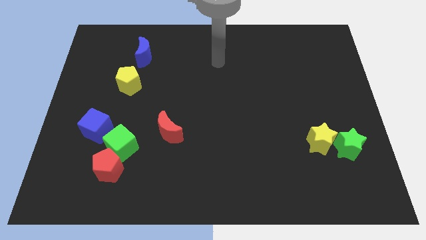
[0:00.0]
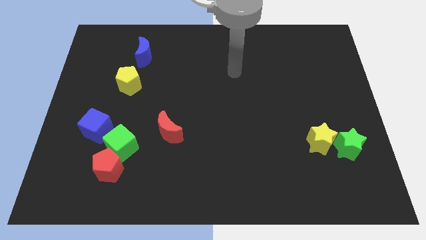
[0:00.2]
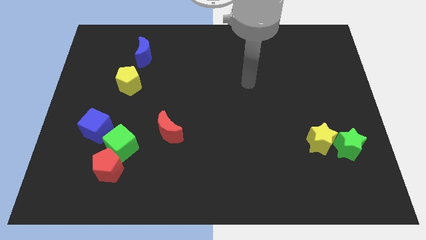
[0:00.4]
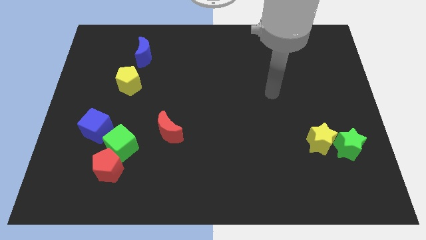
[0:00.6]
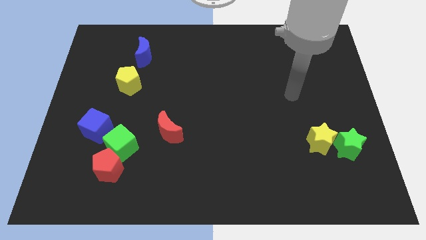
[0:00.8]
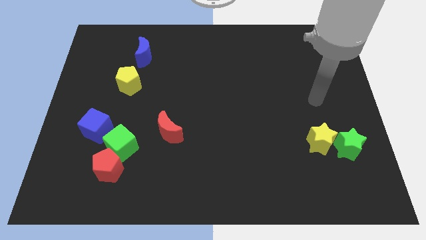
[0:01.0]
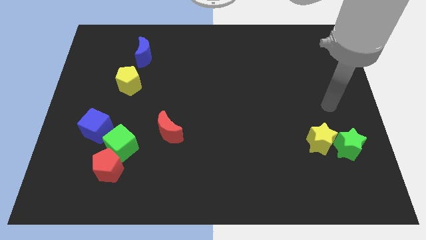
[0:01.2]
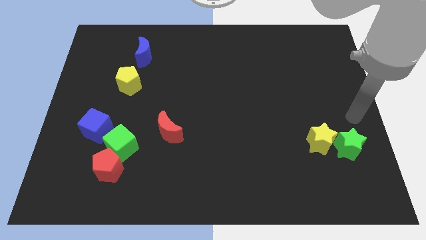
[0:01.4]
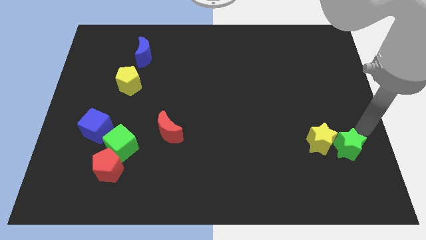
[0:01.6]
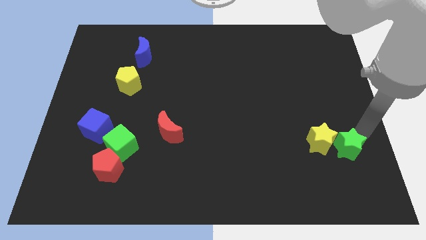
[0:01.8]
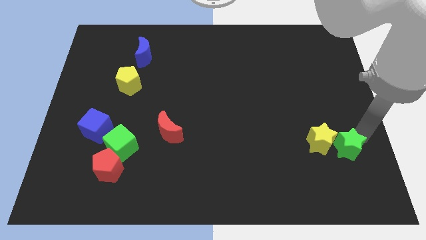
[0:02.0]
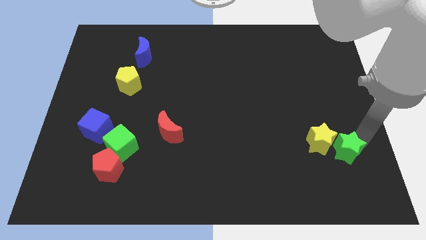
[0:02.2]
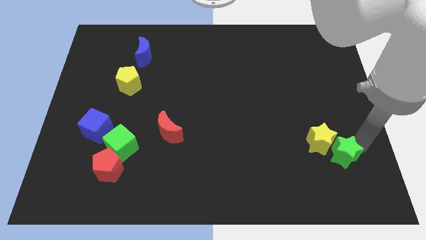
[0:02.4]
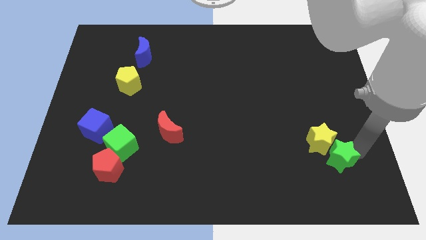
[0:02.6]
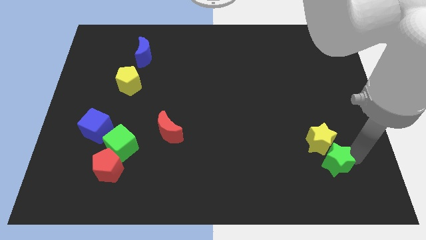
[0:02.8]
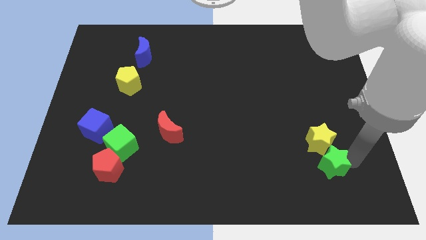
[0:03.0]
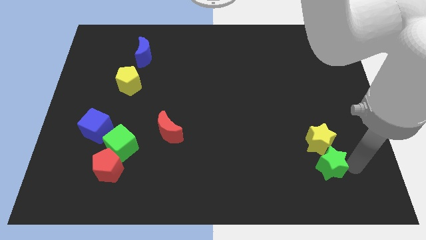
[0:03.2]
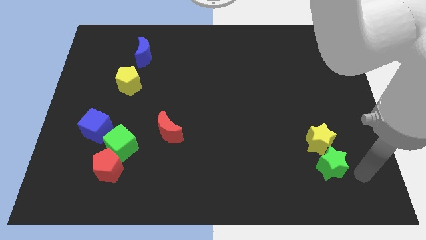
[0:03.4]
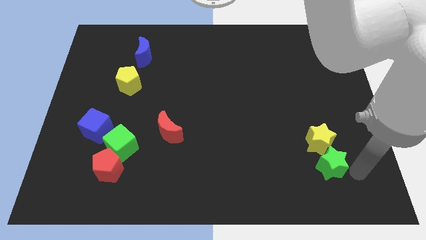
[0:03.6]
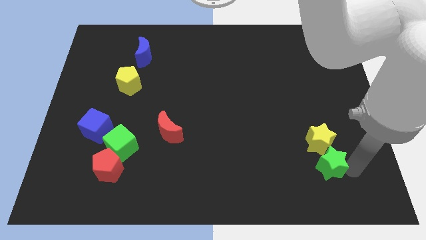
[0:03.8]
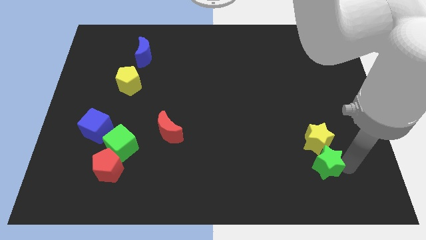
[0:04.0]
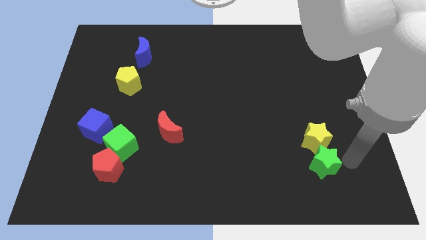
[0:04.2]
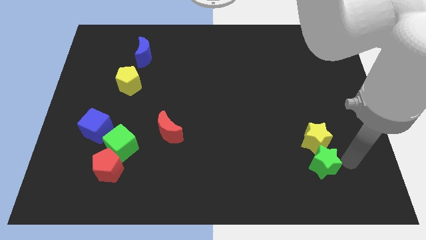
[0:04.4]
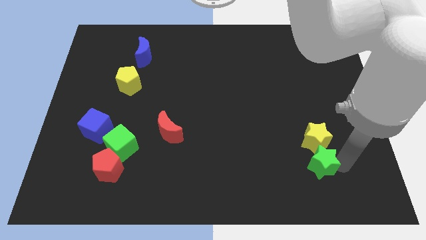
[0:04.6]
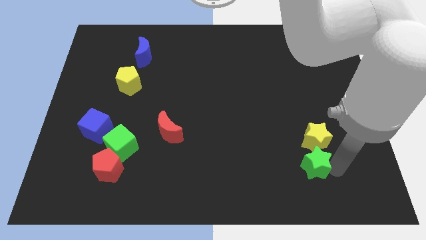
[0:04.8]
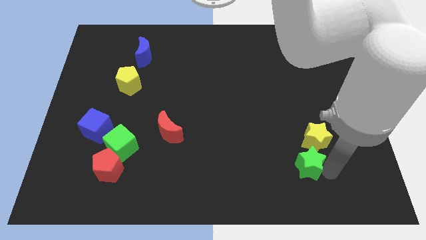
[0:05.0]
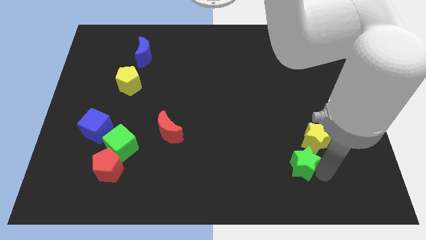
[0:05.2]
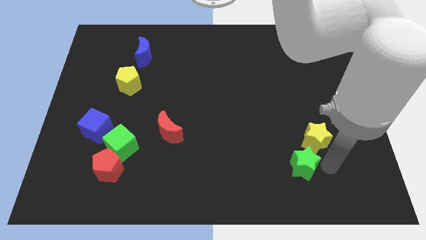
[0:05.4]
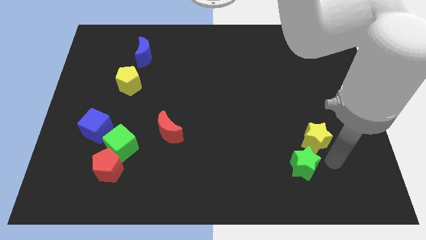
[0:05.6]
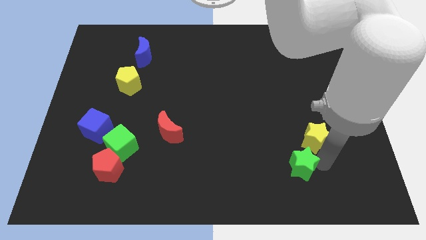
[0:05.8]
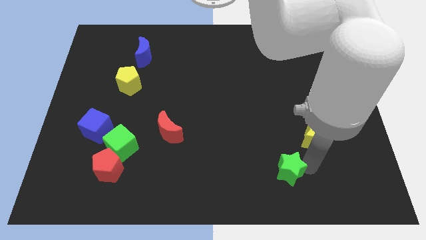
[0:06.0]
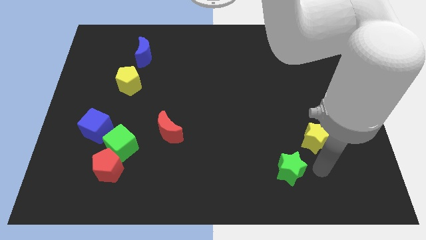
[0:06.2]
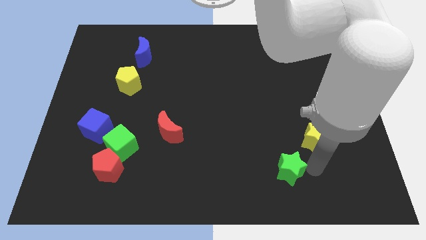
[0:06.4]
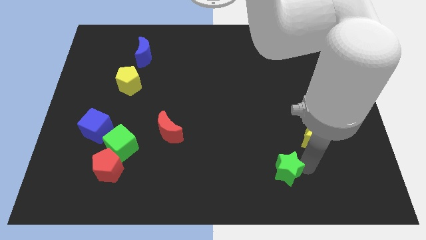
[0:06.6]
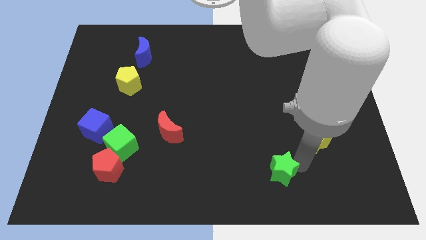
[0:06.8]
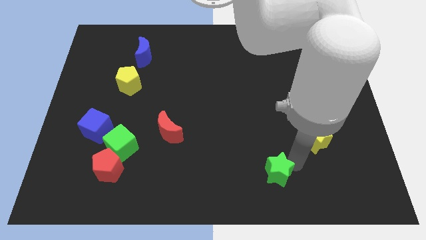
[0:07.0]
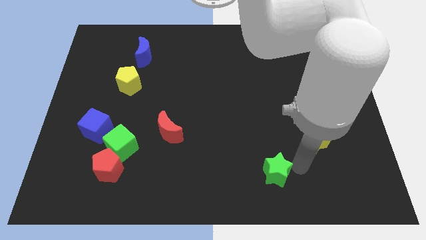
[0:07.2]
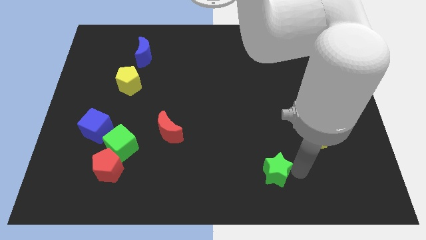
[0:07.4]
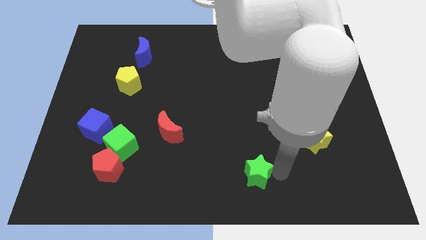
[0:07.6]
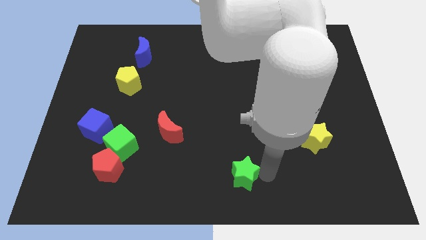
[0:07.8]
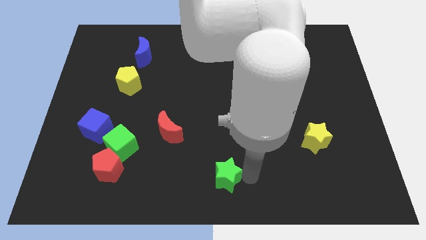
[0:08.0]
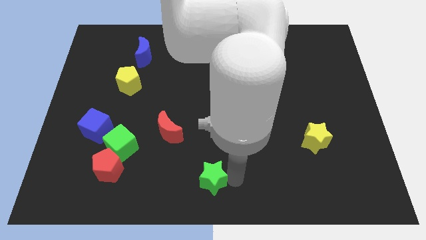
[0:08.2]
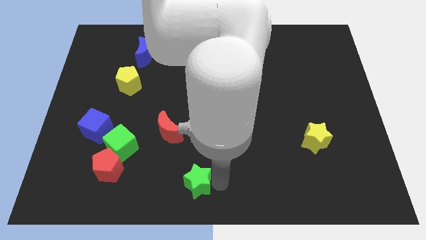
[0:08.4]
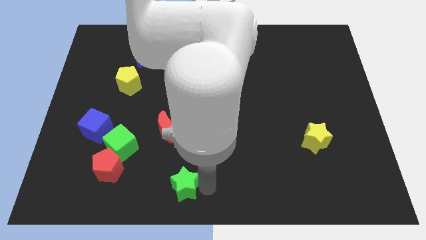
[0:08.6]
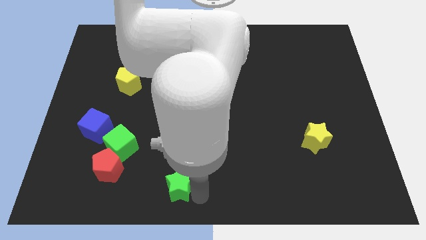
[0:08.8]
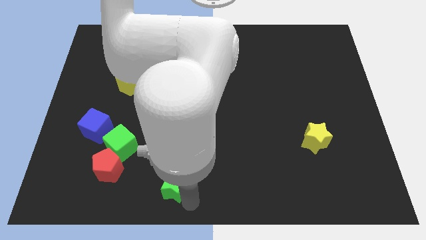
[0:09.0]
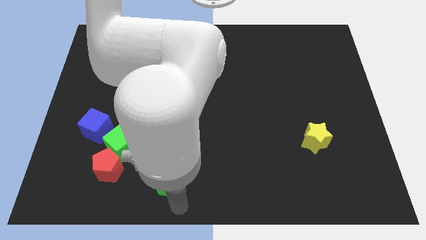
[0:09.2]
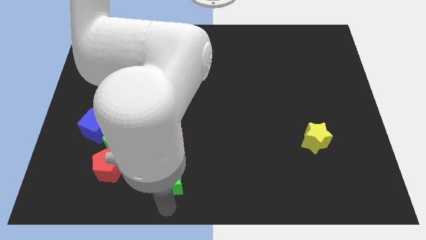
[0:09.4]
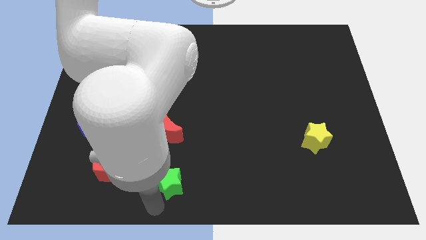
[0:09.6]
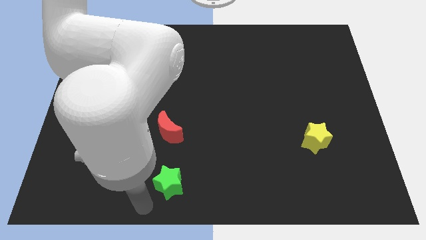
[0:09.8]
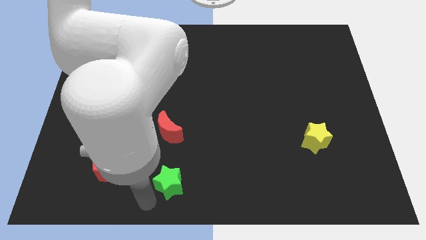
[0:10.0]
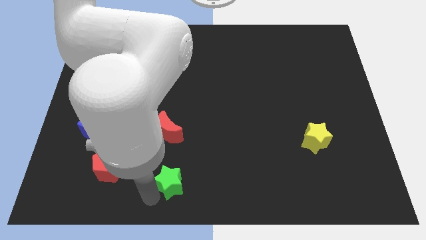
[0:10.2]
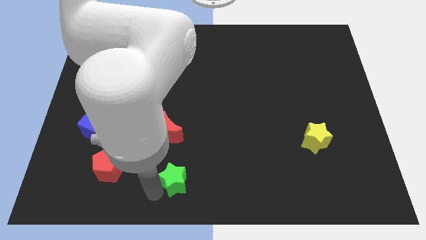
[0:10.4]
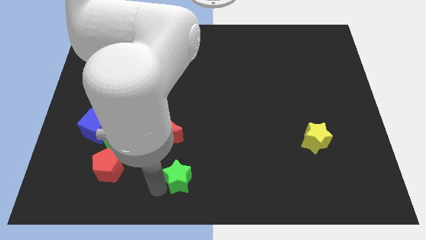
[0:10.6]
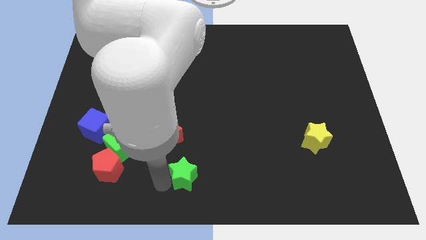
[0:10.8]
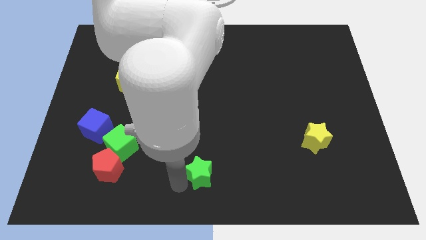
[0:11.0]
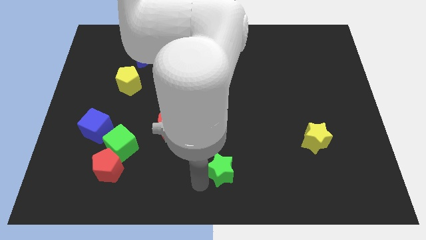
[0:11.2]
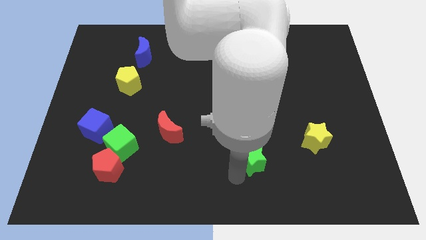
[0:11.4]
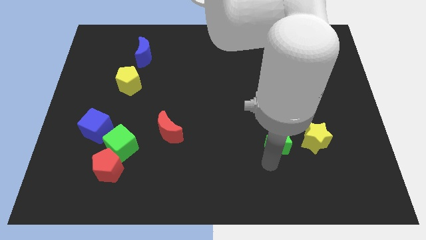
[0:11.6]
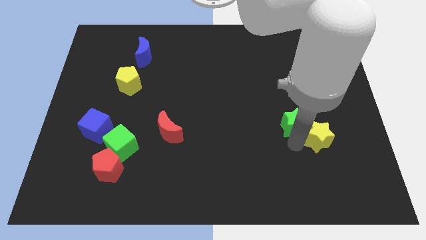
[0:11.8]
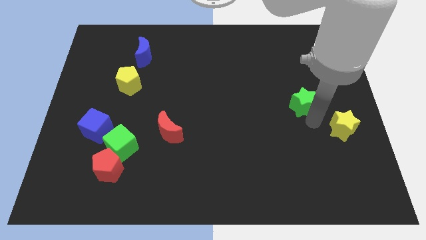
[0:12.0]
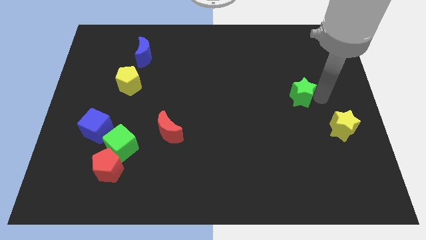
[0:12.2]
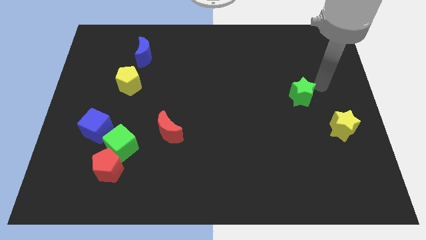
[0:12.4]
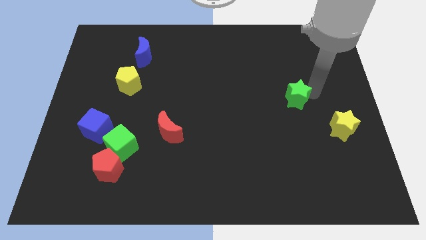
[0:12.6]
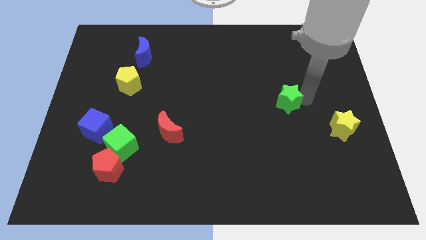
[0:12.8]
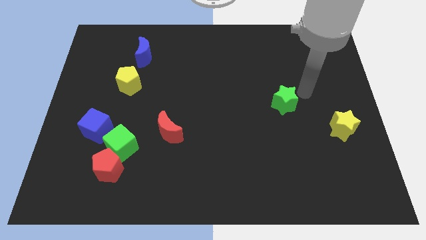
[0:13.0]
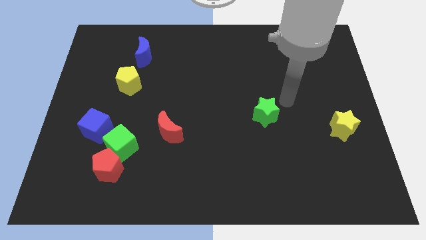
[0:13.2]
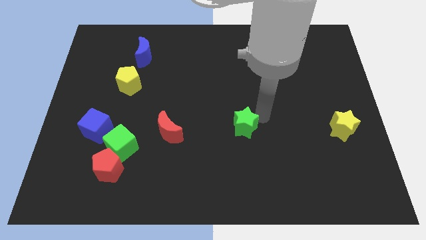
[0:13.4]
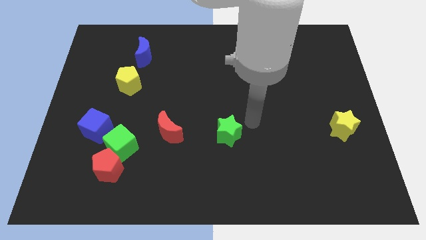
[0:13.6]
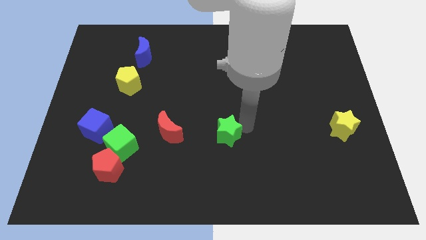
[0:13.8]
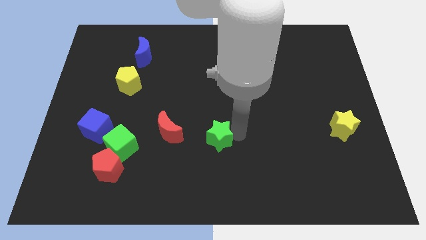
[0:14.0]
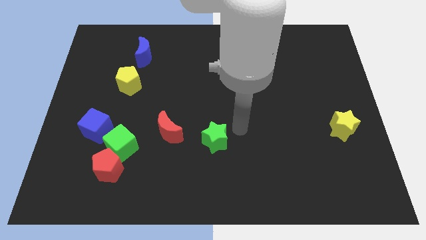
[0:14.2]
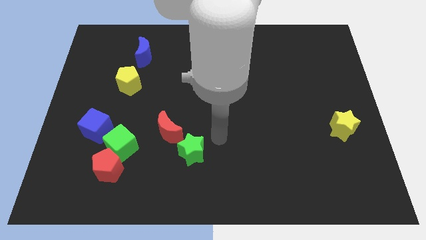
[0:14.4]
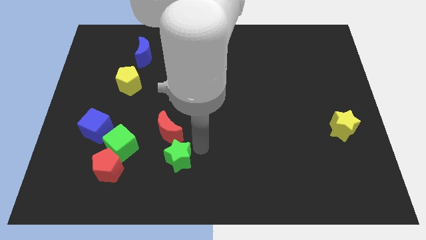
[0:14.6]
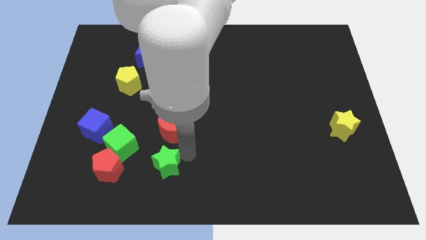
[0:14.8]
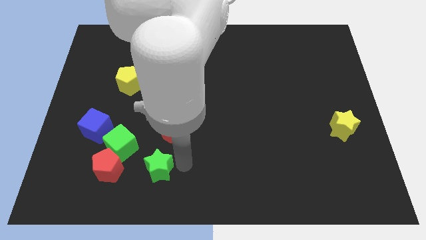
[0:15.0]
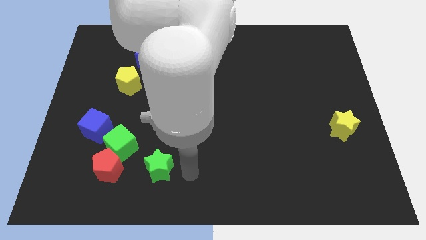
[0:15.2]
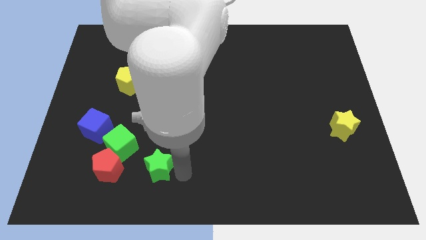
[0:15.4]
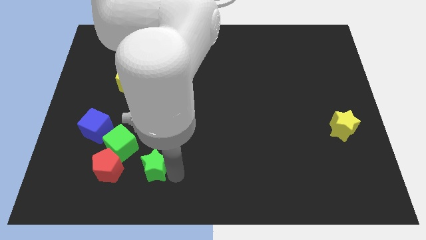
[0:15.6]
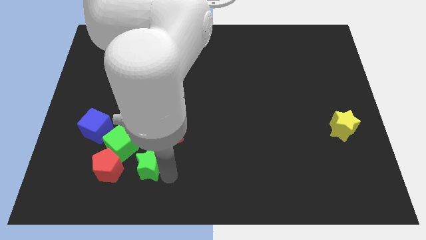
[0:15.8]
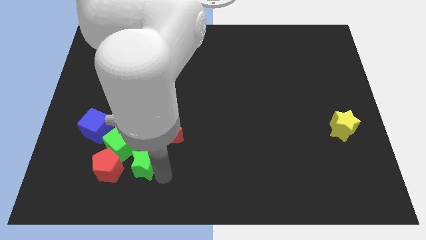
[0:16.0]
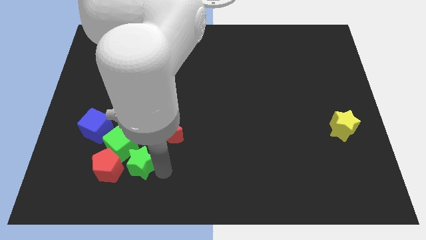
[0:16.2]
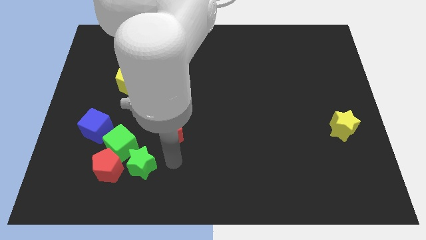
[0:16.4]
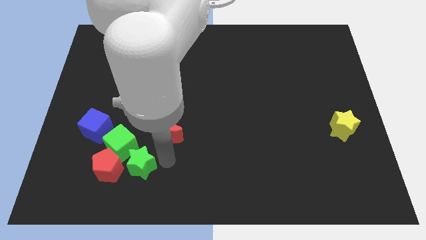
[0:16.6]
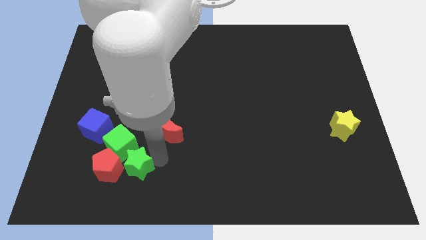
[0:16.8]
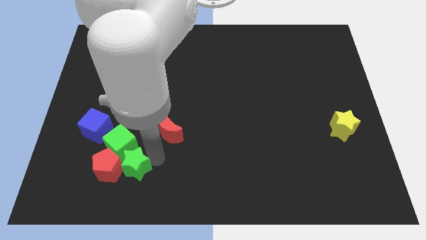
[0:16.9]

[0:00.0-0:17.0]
push the green star to the red pentagon
